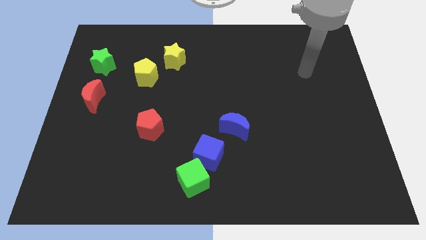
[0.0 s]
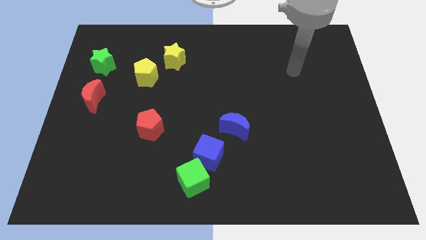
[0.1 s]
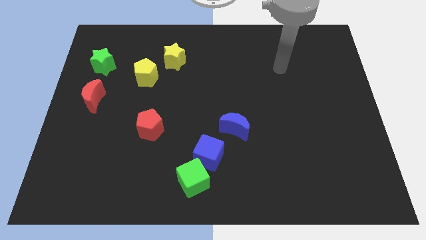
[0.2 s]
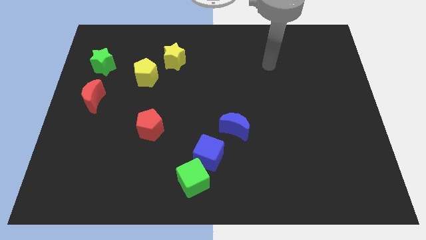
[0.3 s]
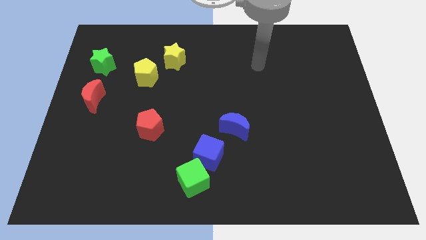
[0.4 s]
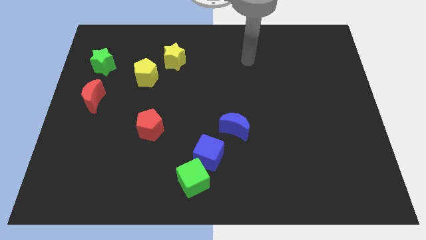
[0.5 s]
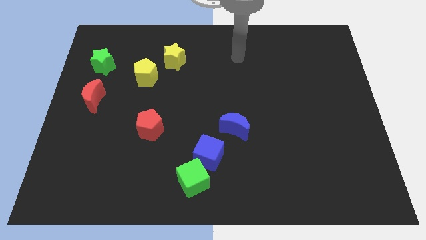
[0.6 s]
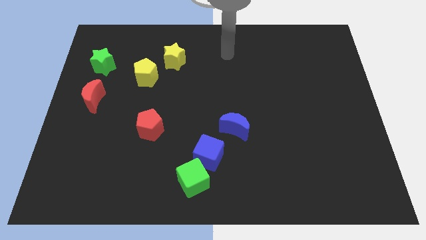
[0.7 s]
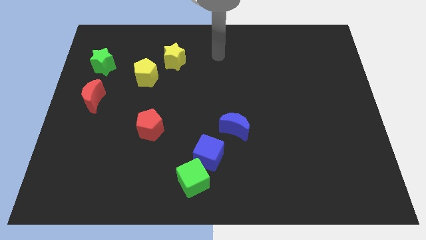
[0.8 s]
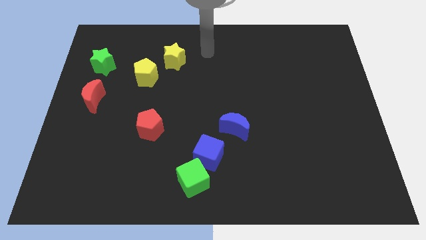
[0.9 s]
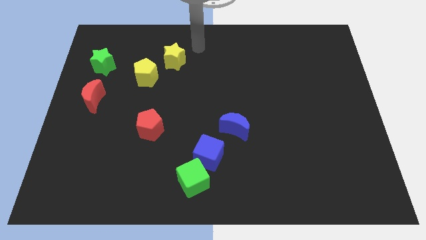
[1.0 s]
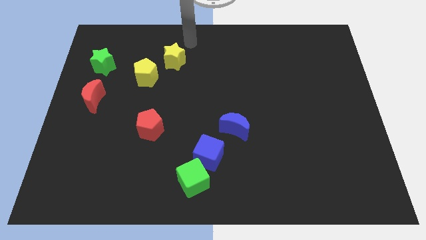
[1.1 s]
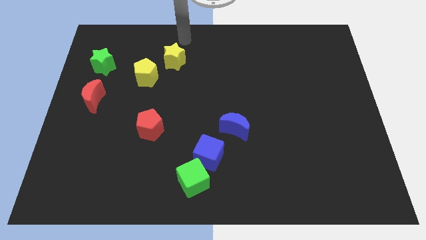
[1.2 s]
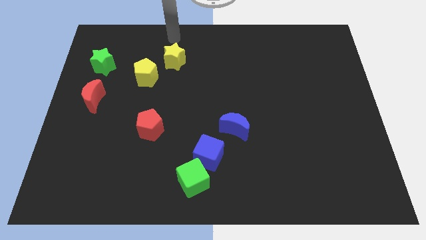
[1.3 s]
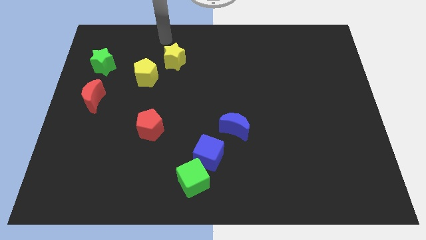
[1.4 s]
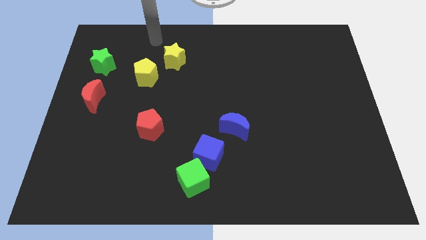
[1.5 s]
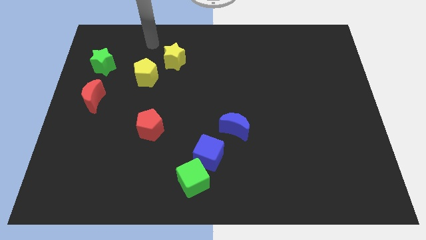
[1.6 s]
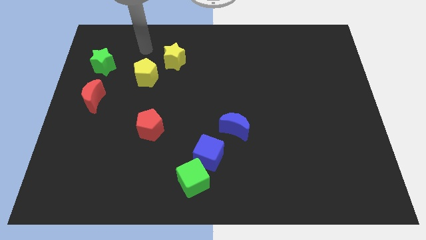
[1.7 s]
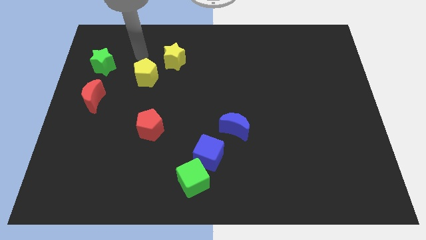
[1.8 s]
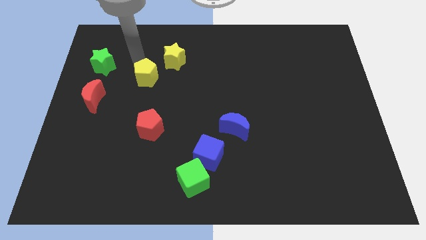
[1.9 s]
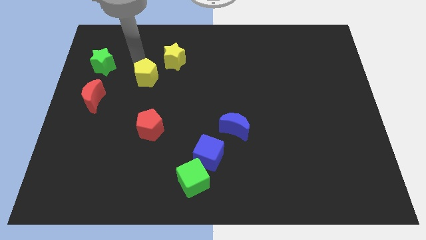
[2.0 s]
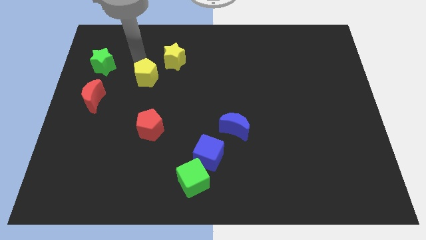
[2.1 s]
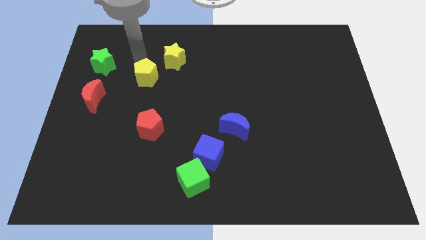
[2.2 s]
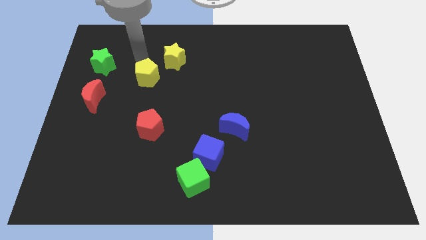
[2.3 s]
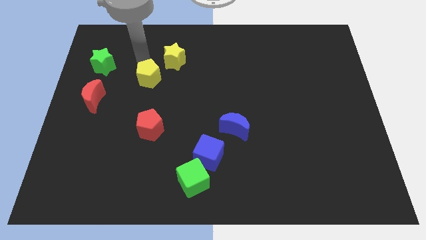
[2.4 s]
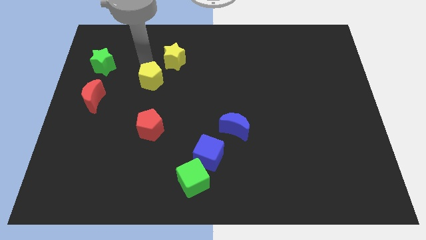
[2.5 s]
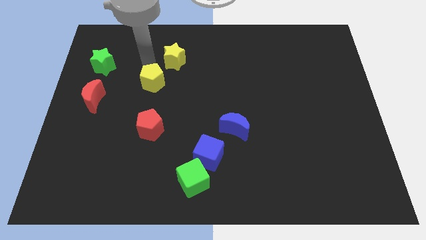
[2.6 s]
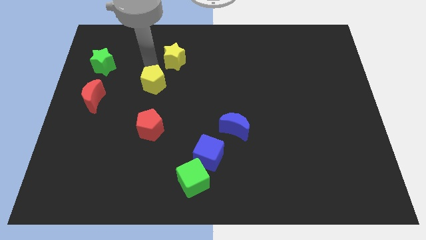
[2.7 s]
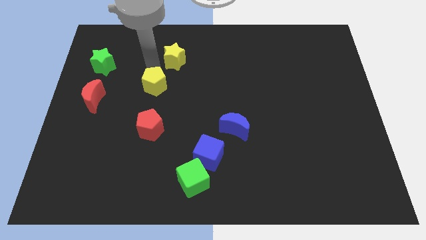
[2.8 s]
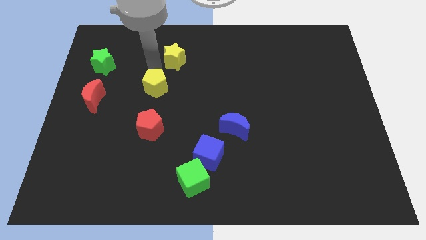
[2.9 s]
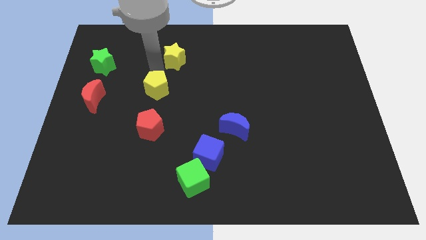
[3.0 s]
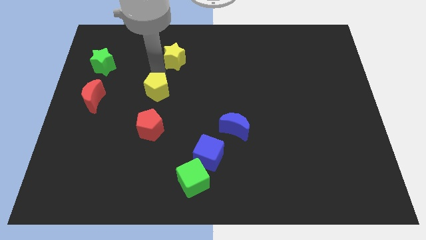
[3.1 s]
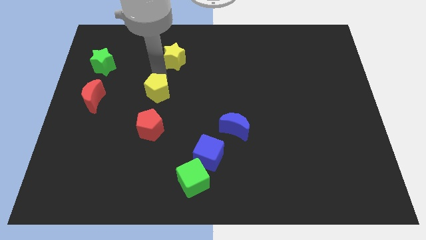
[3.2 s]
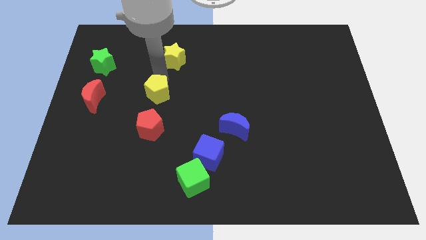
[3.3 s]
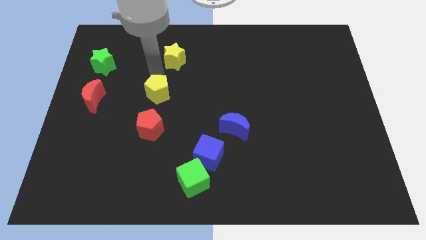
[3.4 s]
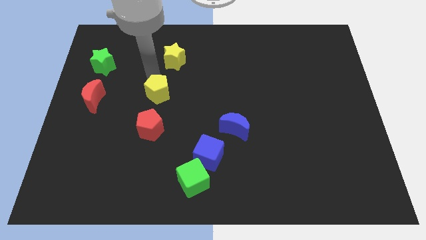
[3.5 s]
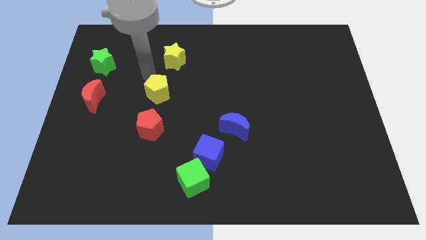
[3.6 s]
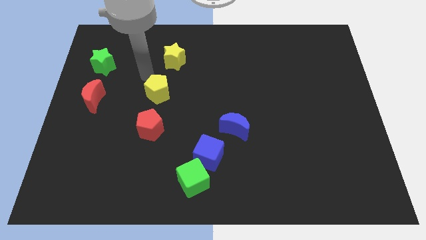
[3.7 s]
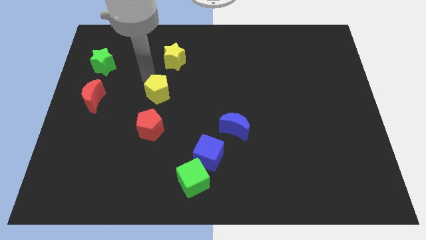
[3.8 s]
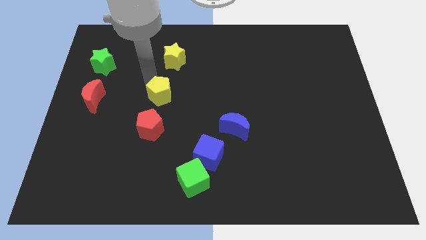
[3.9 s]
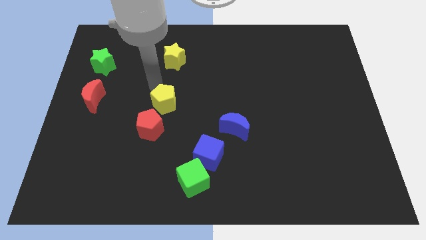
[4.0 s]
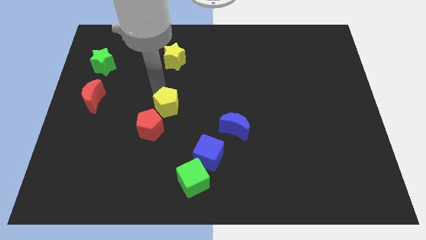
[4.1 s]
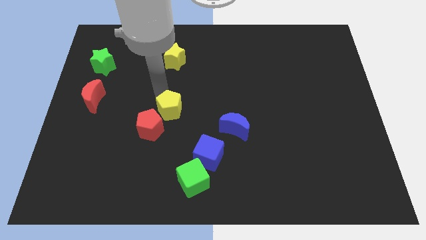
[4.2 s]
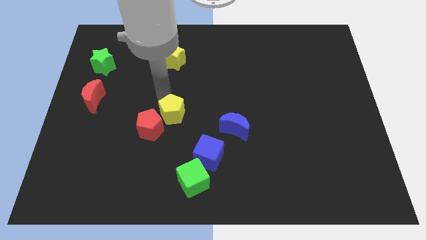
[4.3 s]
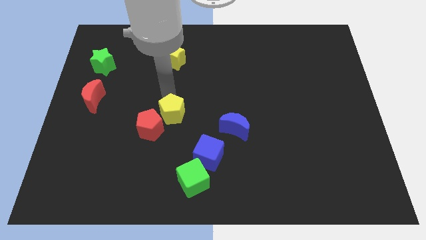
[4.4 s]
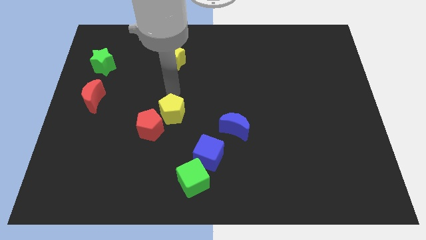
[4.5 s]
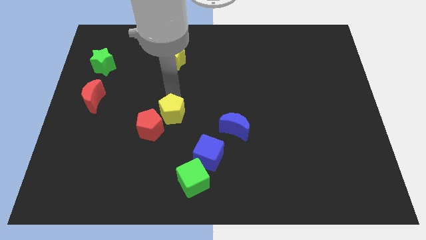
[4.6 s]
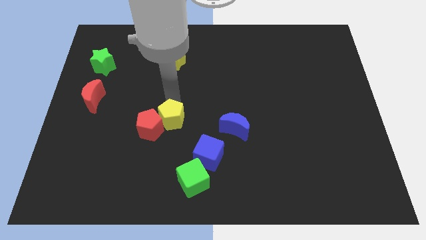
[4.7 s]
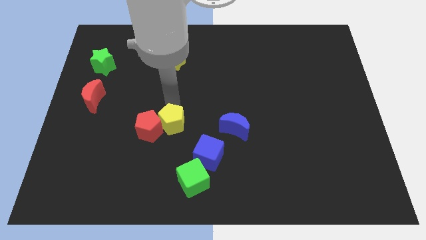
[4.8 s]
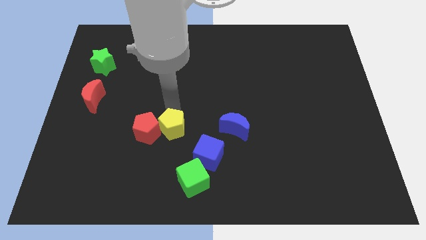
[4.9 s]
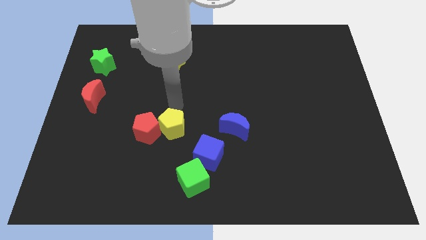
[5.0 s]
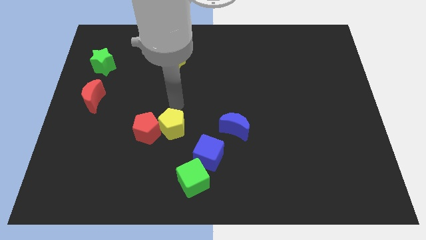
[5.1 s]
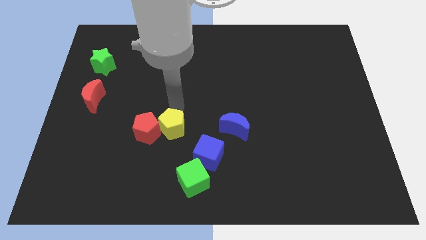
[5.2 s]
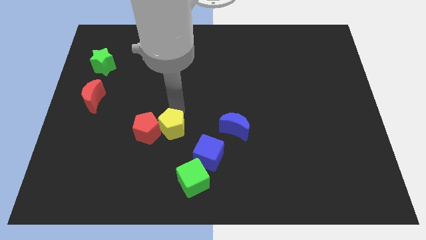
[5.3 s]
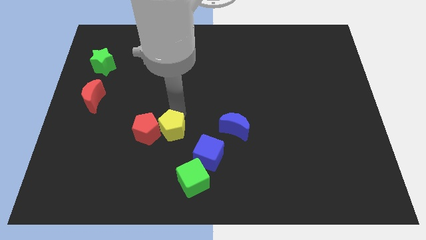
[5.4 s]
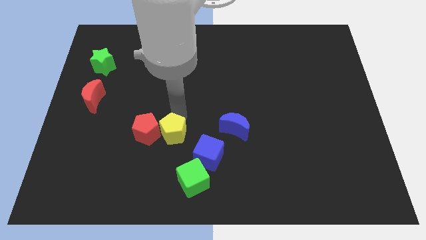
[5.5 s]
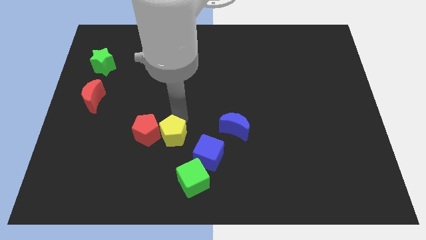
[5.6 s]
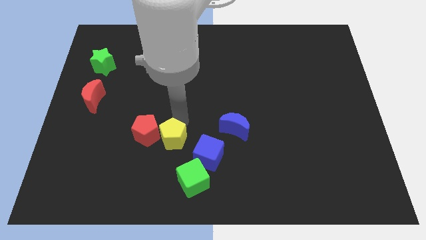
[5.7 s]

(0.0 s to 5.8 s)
move the yellow pentagon to the top left of the green cube
